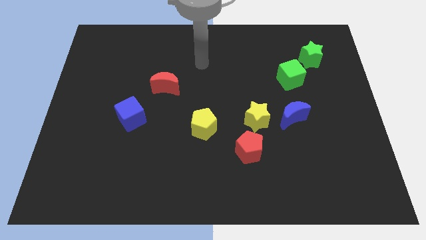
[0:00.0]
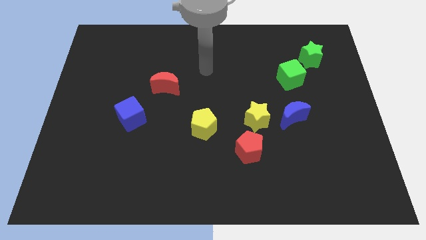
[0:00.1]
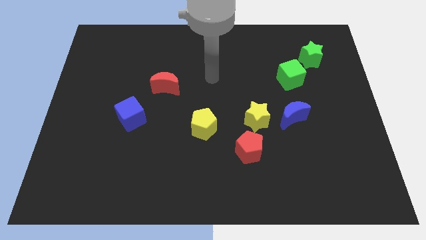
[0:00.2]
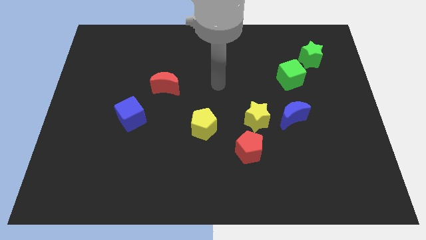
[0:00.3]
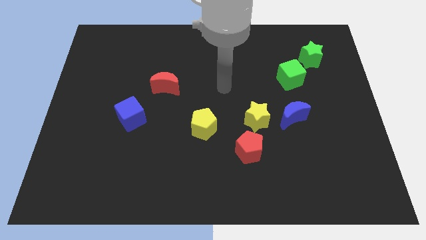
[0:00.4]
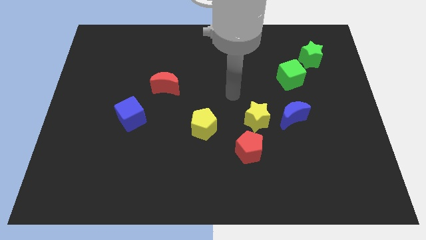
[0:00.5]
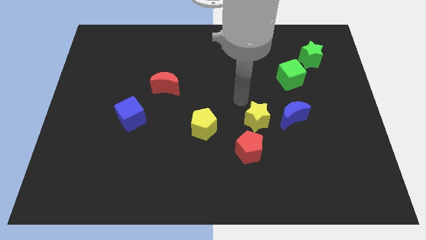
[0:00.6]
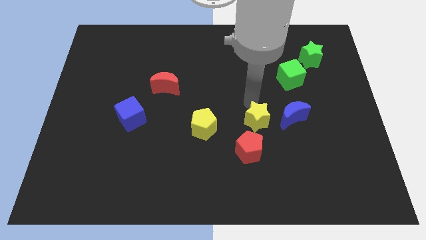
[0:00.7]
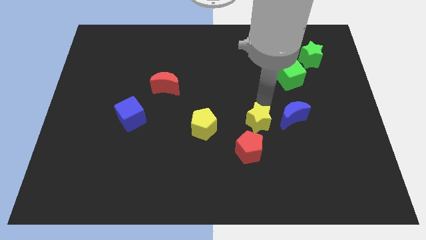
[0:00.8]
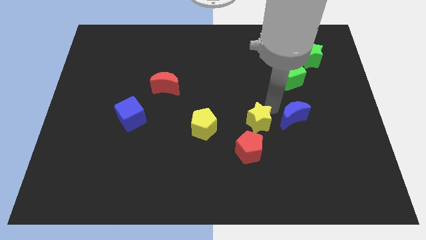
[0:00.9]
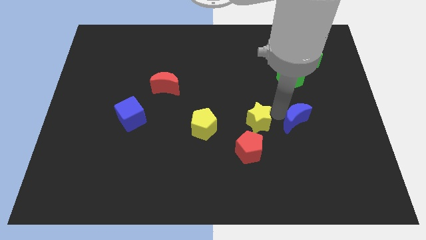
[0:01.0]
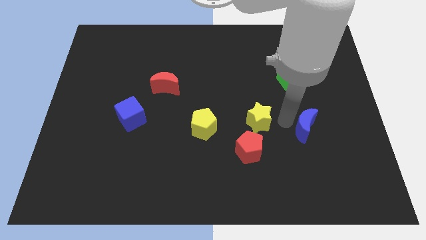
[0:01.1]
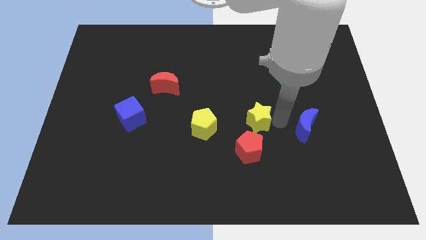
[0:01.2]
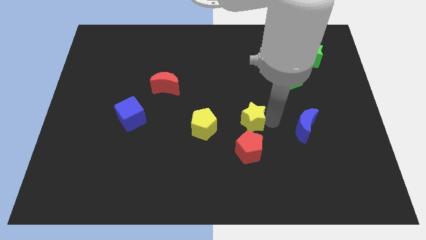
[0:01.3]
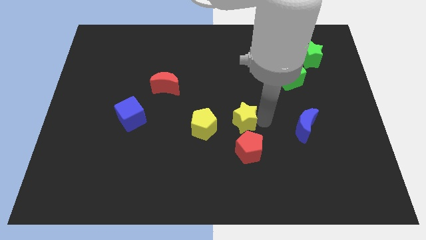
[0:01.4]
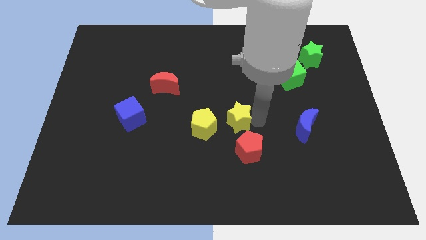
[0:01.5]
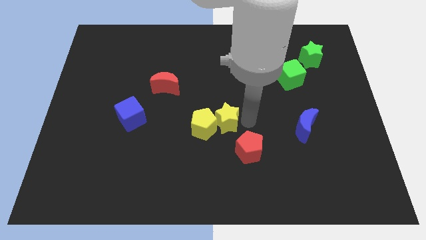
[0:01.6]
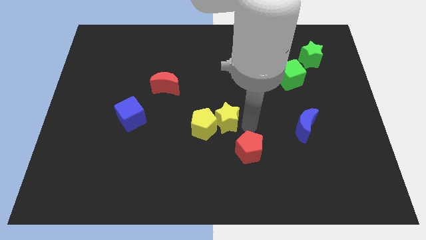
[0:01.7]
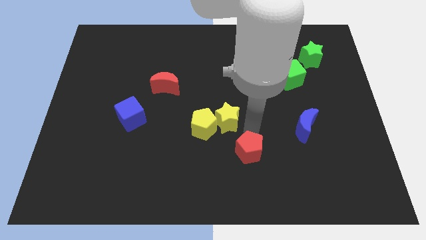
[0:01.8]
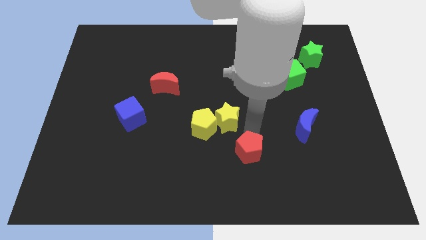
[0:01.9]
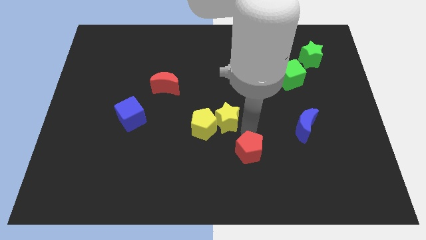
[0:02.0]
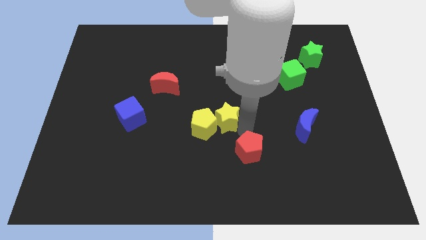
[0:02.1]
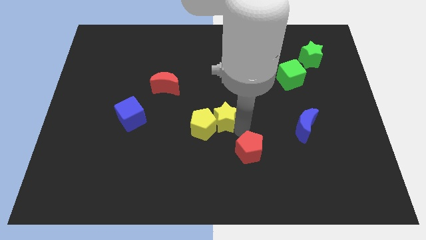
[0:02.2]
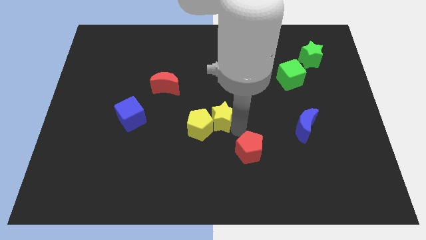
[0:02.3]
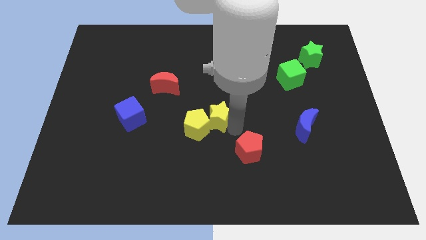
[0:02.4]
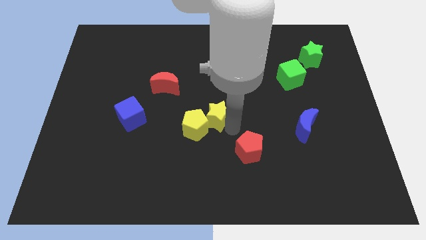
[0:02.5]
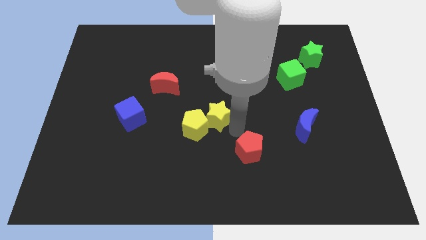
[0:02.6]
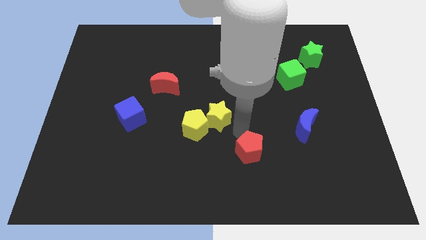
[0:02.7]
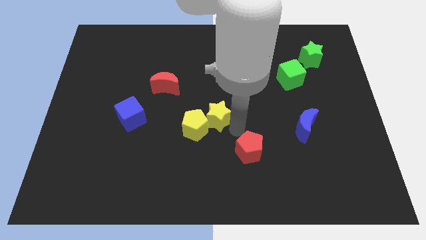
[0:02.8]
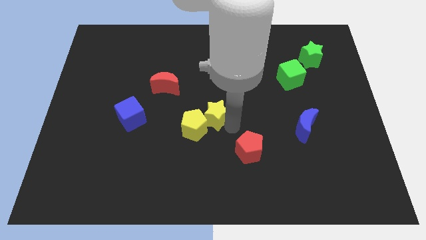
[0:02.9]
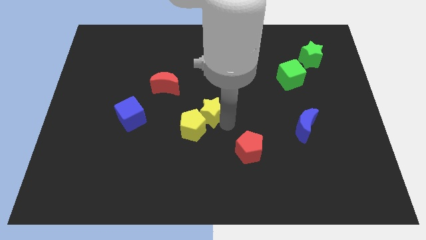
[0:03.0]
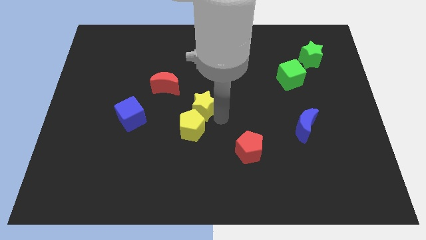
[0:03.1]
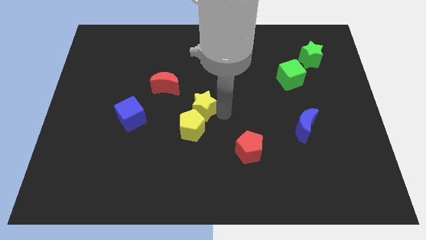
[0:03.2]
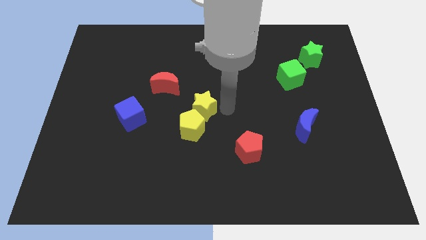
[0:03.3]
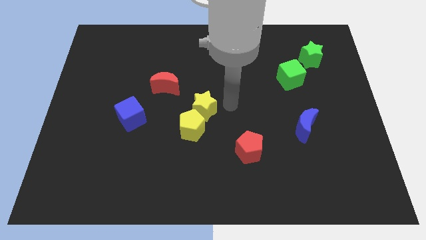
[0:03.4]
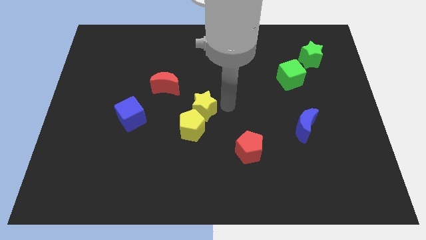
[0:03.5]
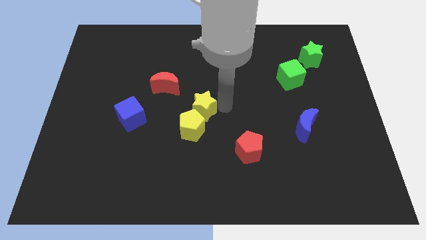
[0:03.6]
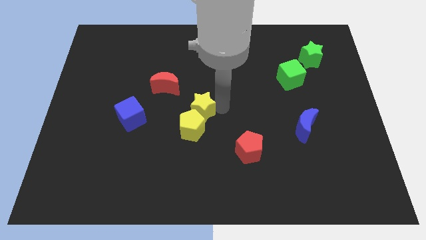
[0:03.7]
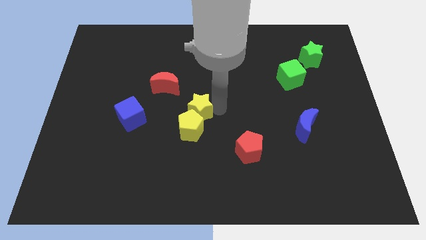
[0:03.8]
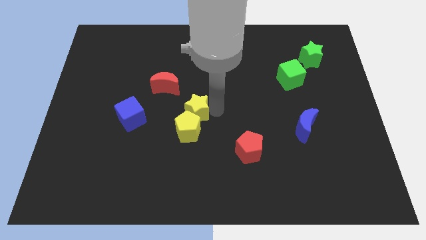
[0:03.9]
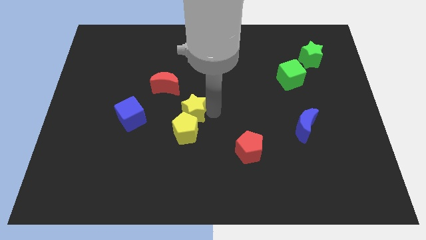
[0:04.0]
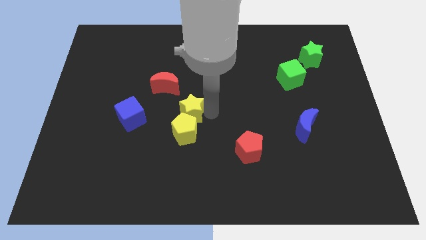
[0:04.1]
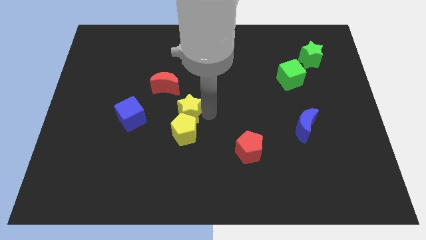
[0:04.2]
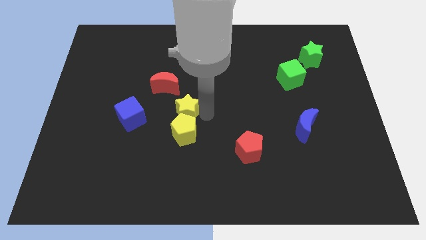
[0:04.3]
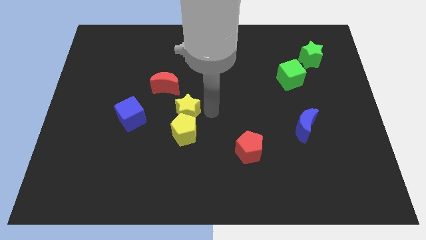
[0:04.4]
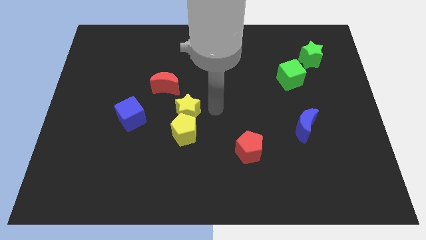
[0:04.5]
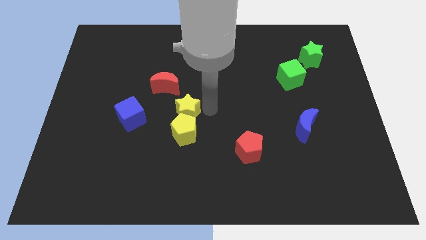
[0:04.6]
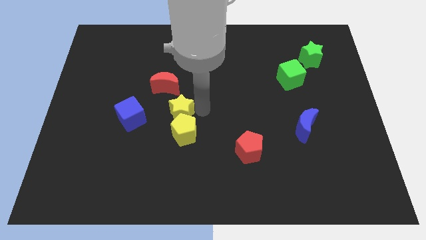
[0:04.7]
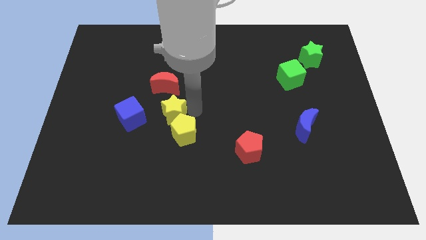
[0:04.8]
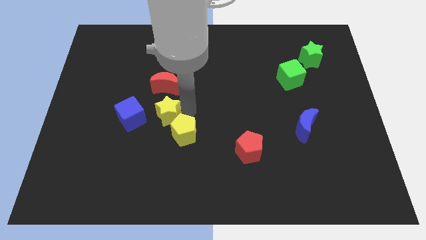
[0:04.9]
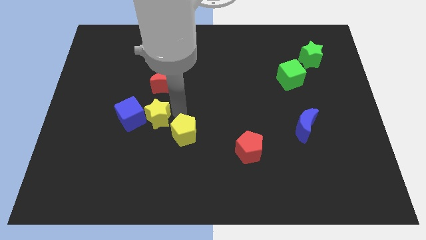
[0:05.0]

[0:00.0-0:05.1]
push the yellow star towards the blue cube

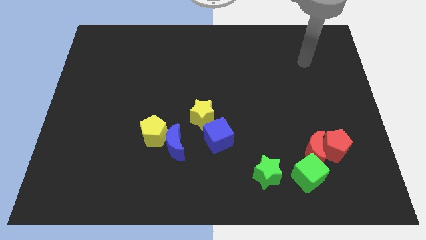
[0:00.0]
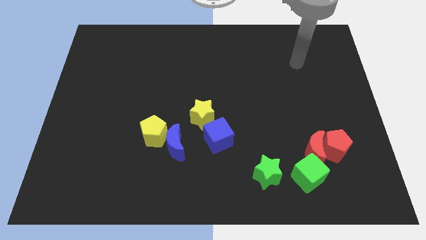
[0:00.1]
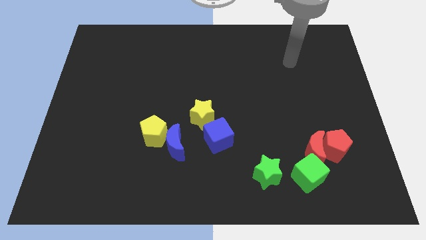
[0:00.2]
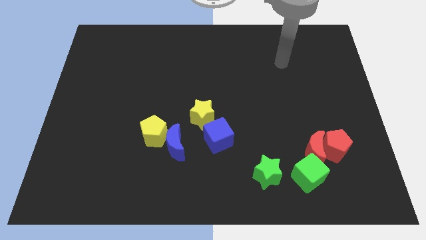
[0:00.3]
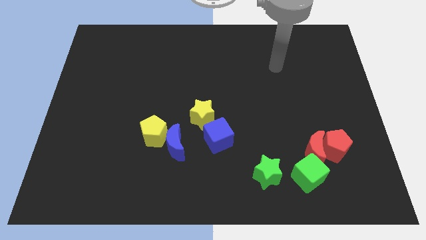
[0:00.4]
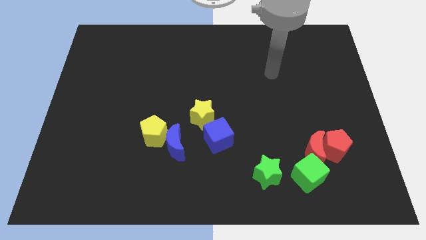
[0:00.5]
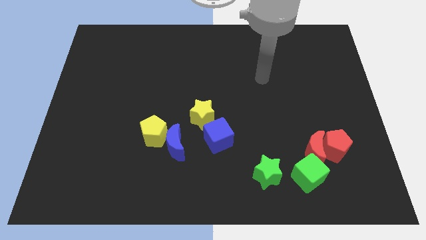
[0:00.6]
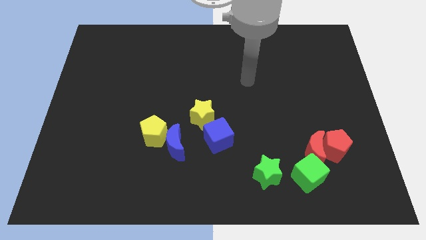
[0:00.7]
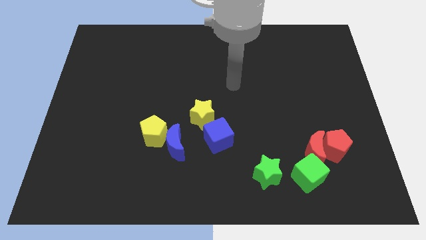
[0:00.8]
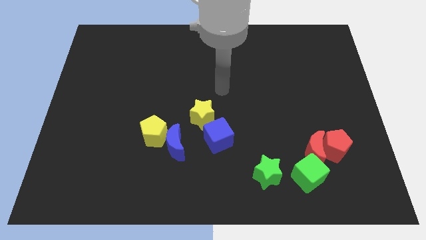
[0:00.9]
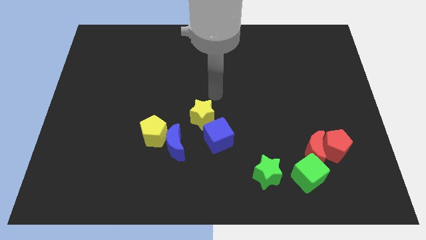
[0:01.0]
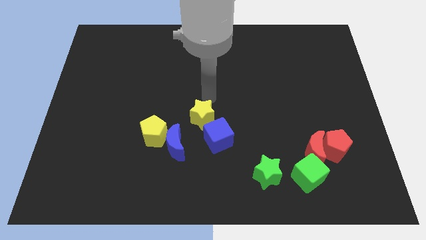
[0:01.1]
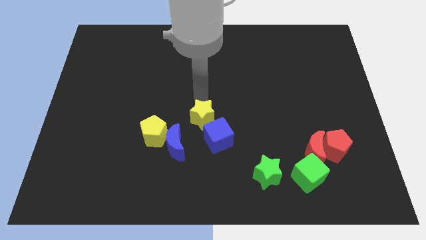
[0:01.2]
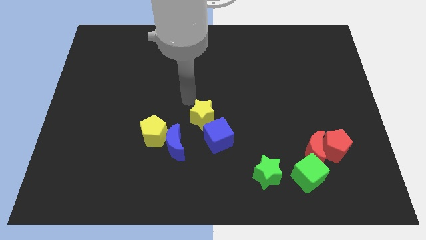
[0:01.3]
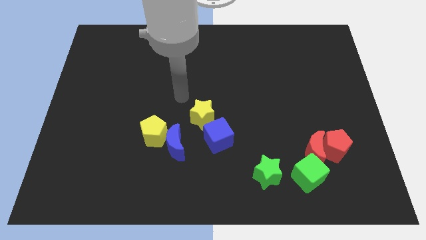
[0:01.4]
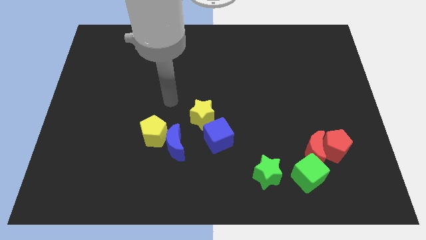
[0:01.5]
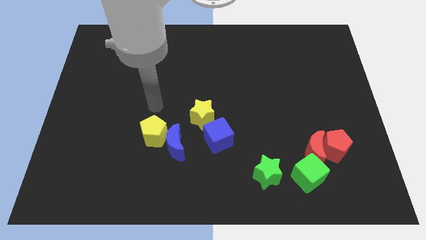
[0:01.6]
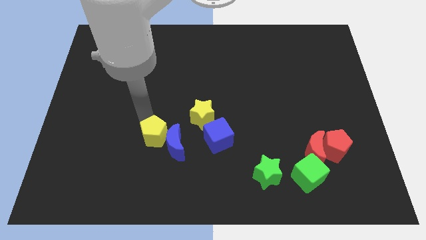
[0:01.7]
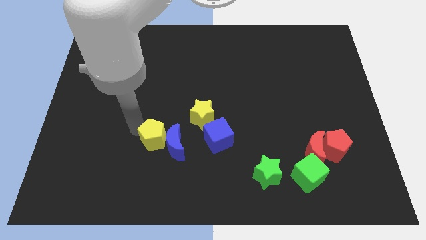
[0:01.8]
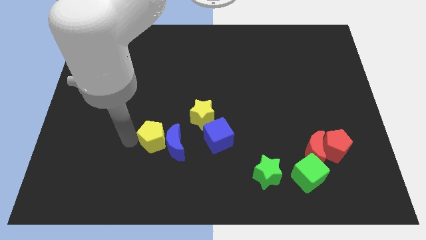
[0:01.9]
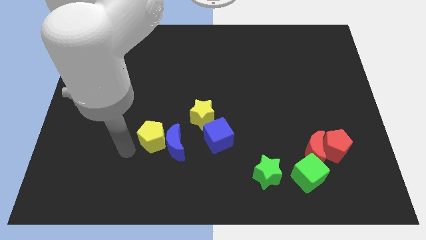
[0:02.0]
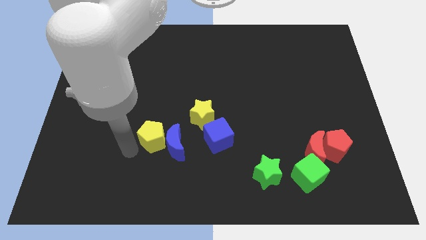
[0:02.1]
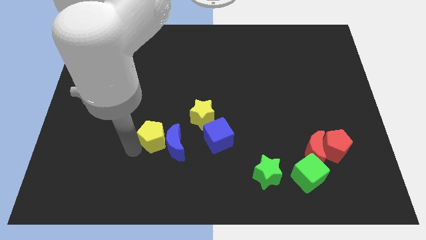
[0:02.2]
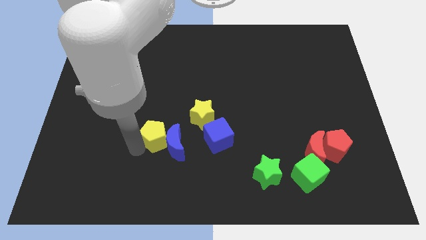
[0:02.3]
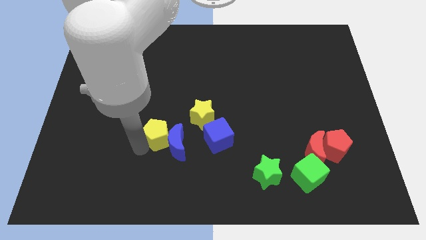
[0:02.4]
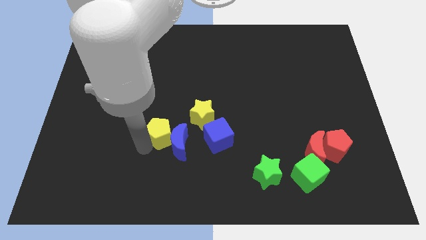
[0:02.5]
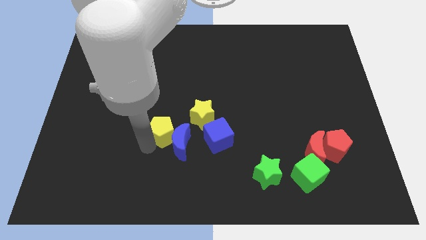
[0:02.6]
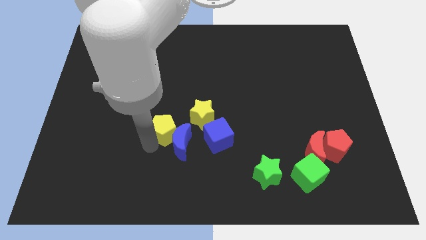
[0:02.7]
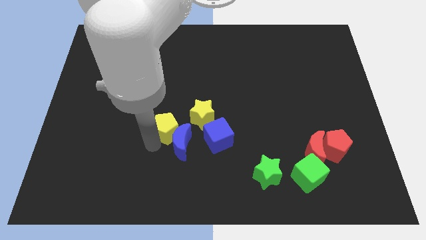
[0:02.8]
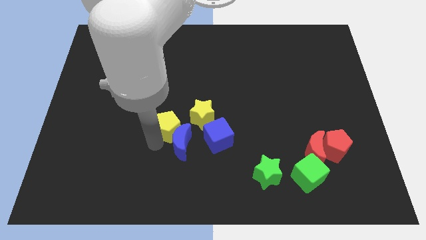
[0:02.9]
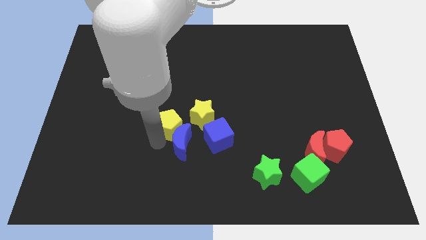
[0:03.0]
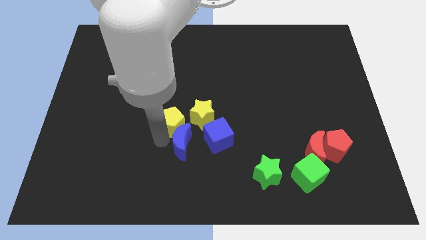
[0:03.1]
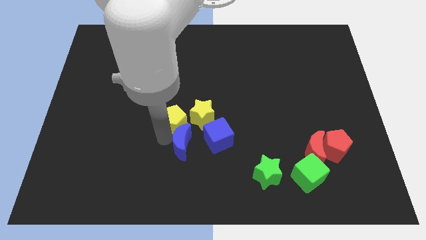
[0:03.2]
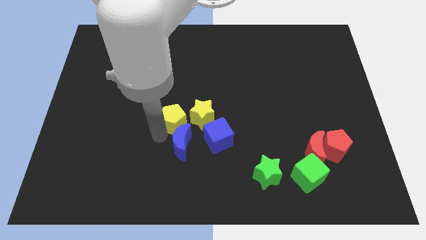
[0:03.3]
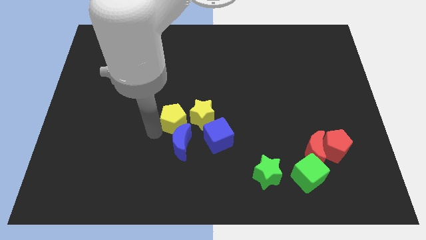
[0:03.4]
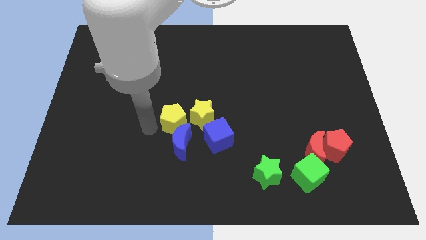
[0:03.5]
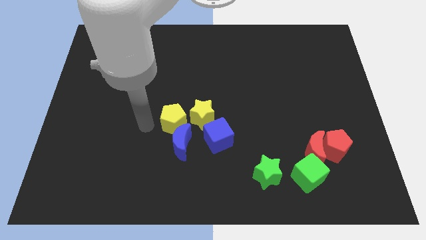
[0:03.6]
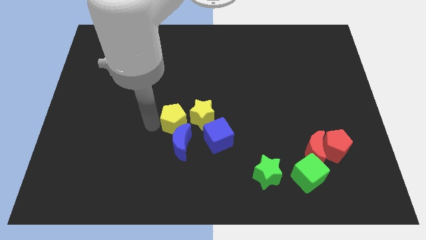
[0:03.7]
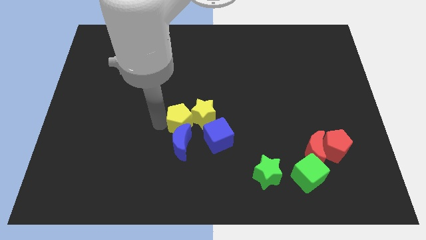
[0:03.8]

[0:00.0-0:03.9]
slide the yellow pentagon next to the yellow star
